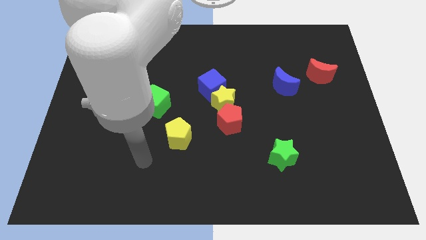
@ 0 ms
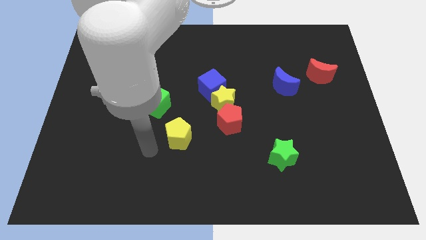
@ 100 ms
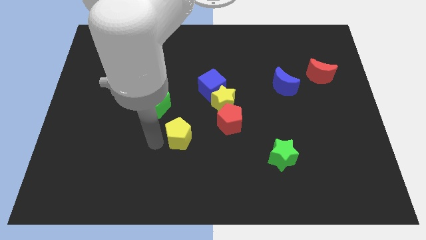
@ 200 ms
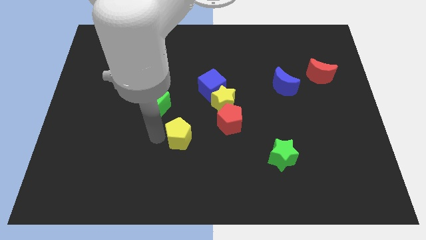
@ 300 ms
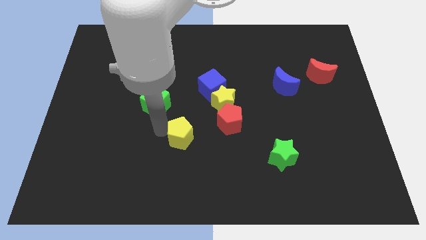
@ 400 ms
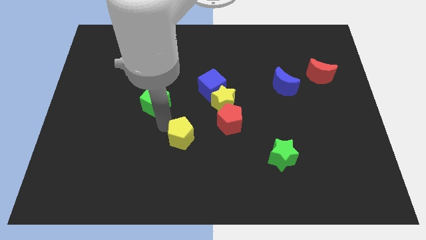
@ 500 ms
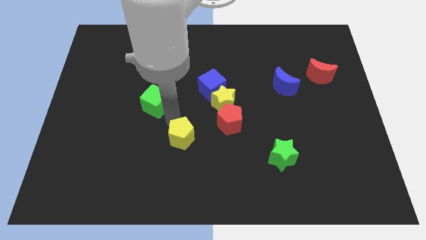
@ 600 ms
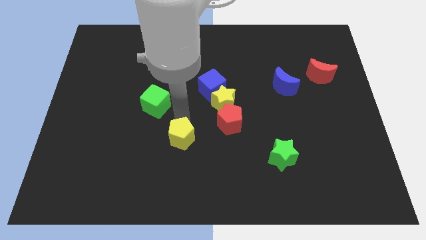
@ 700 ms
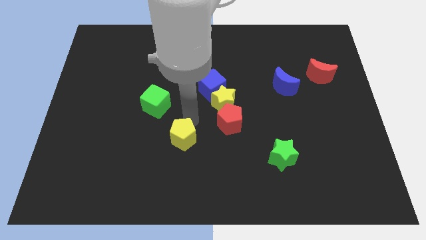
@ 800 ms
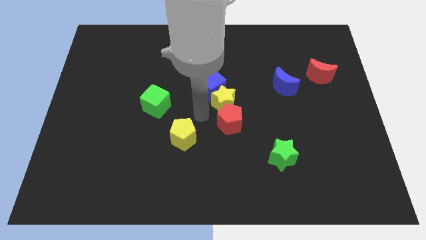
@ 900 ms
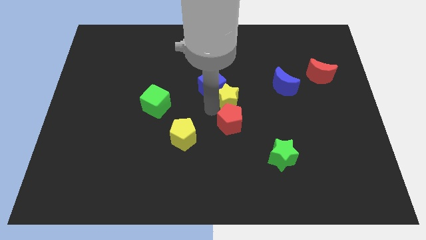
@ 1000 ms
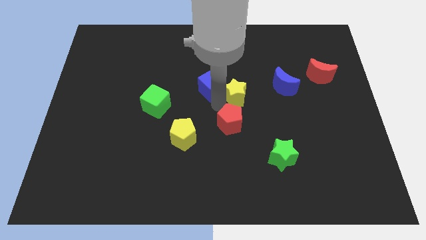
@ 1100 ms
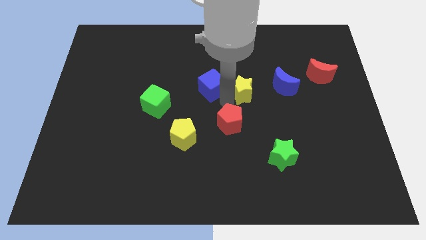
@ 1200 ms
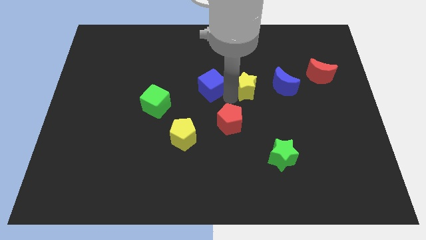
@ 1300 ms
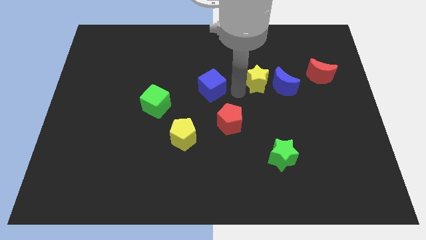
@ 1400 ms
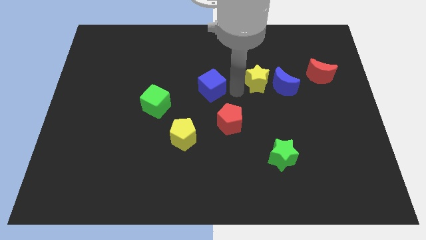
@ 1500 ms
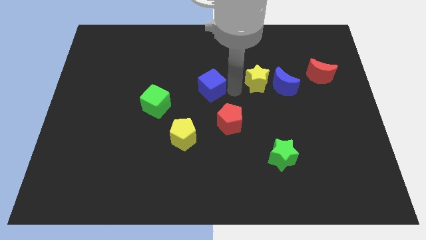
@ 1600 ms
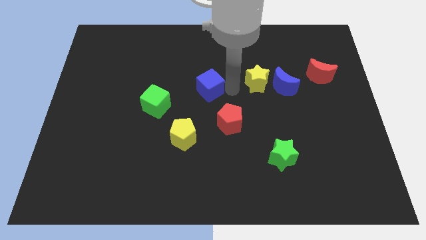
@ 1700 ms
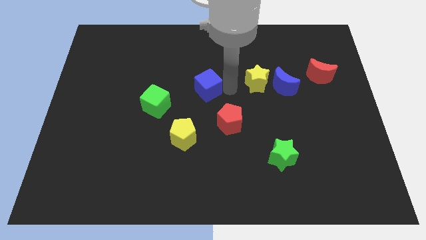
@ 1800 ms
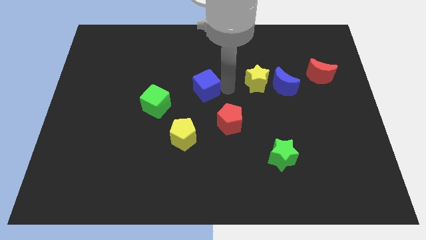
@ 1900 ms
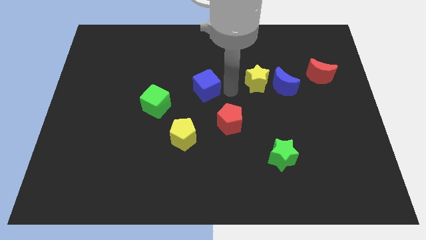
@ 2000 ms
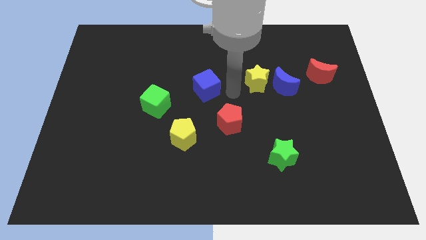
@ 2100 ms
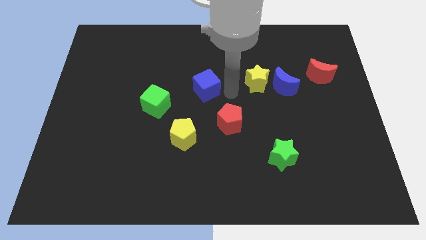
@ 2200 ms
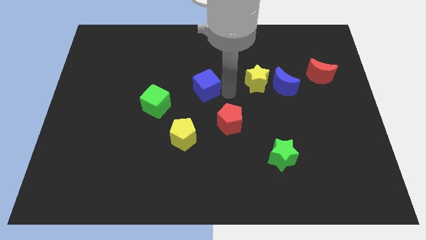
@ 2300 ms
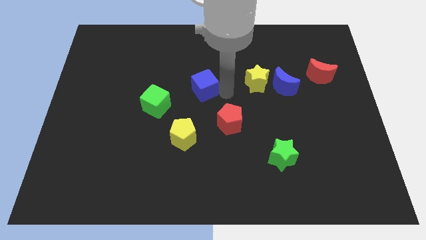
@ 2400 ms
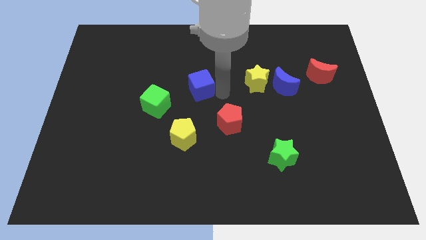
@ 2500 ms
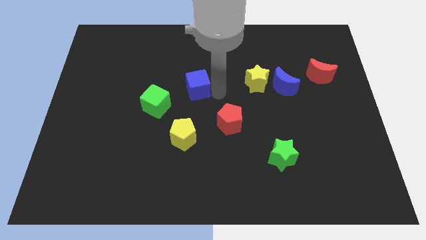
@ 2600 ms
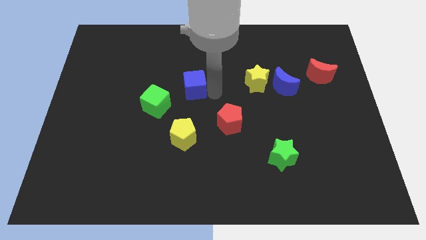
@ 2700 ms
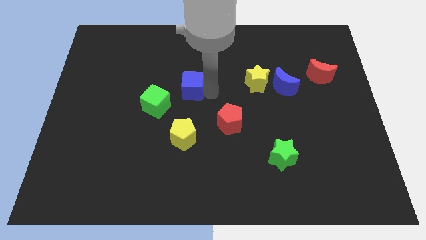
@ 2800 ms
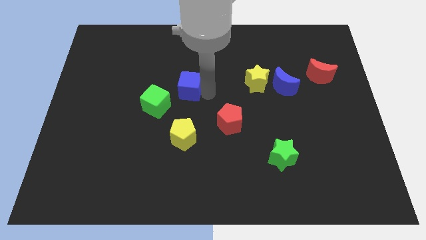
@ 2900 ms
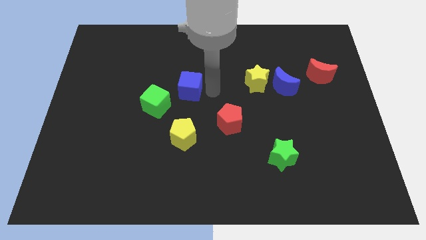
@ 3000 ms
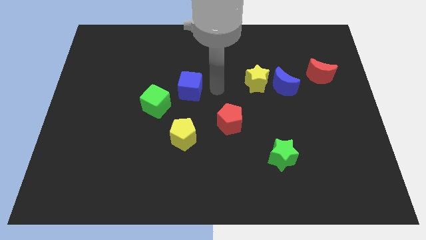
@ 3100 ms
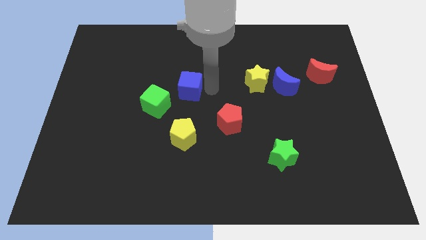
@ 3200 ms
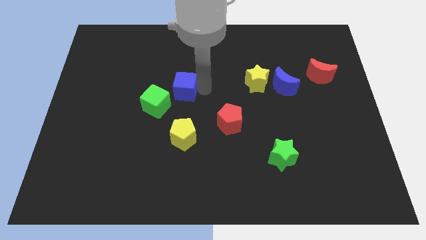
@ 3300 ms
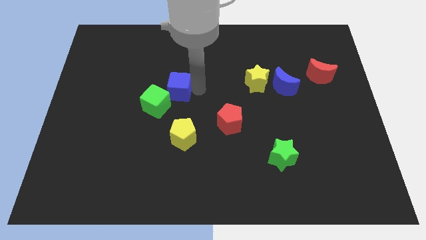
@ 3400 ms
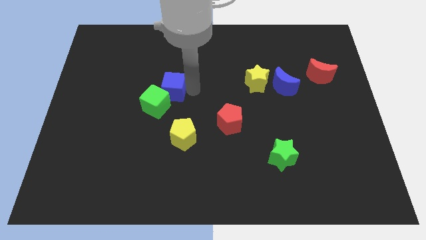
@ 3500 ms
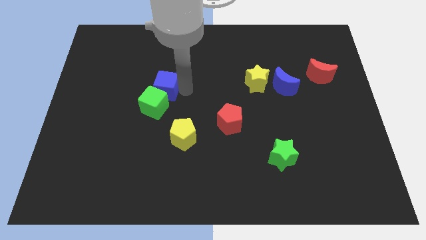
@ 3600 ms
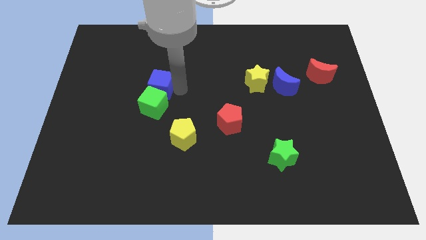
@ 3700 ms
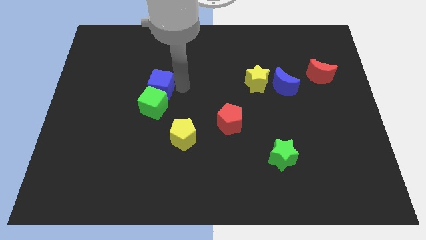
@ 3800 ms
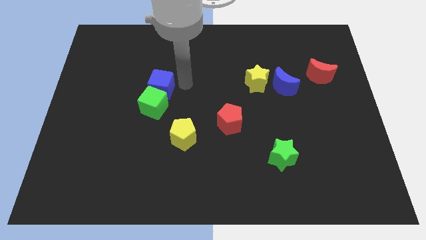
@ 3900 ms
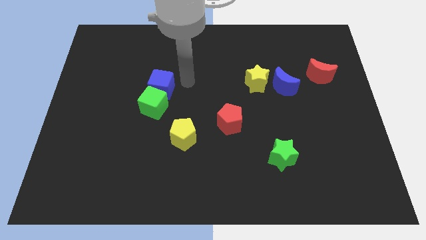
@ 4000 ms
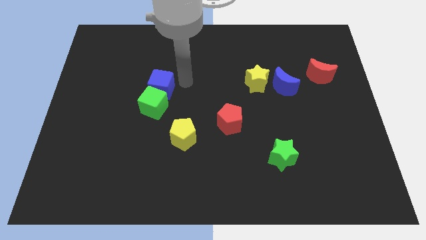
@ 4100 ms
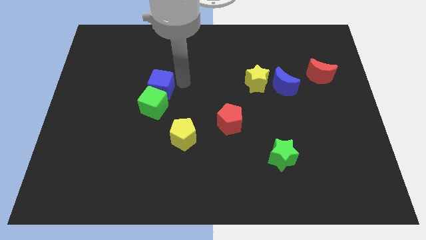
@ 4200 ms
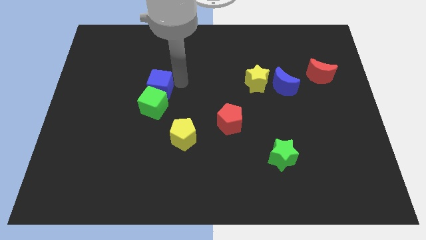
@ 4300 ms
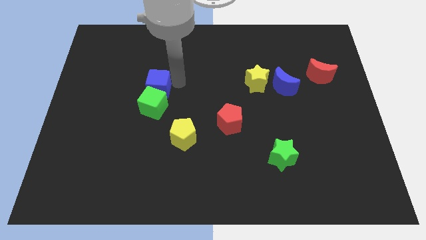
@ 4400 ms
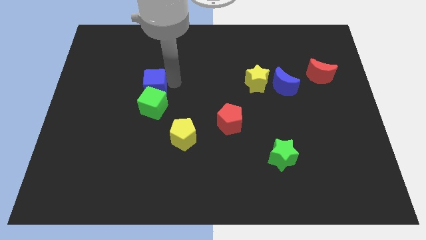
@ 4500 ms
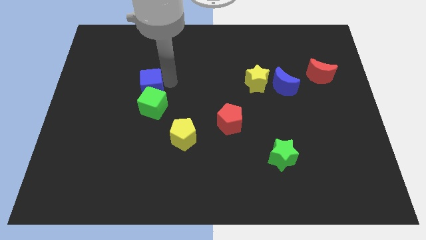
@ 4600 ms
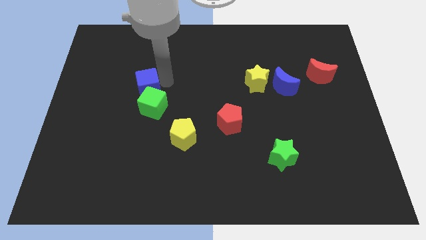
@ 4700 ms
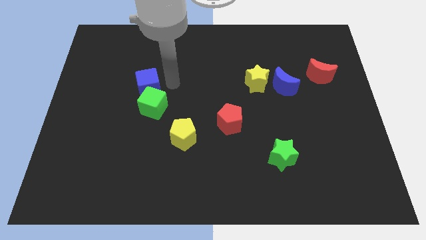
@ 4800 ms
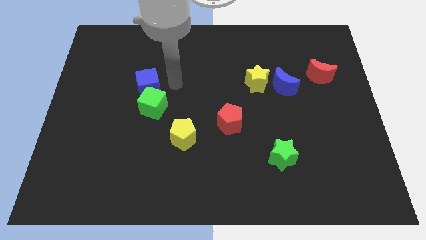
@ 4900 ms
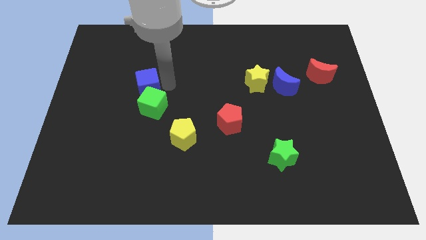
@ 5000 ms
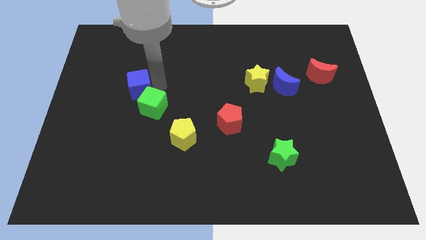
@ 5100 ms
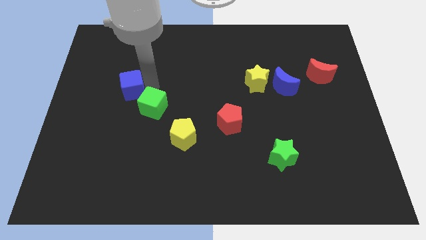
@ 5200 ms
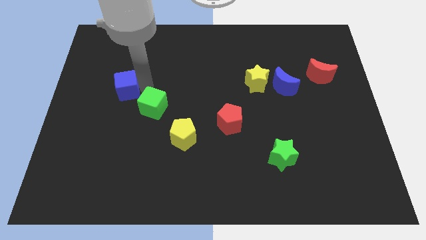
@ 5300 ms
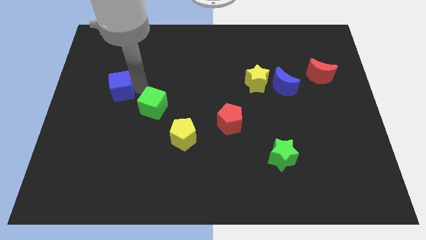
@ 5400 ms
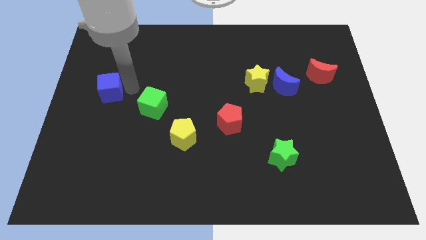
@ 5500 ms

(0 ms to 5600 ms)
put the blue cube to the center left

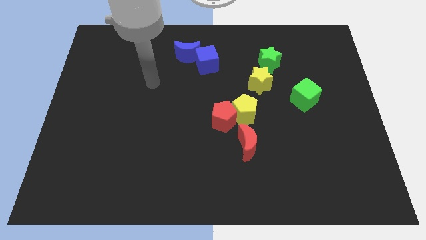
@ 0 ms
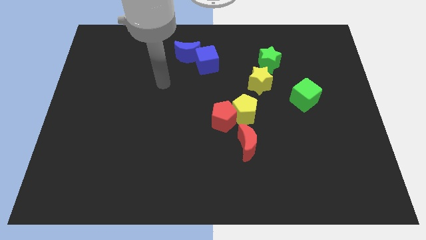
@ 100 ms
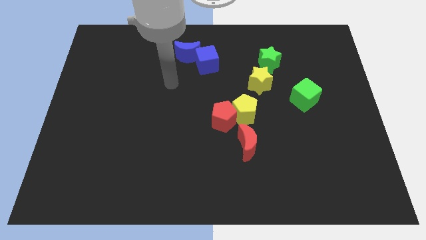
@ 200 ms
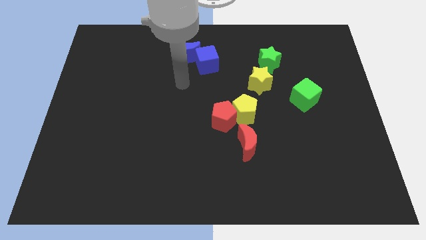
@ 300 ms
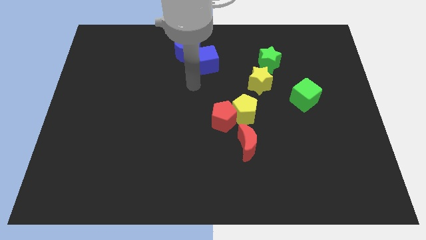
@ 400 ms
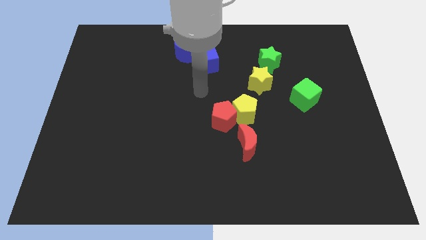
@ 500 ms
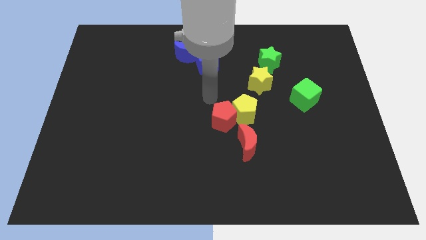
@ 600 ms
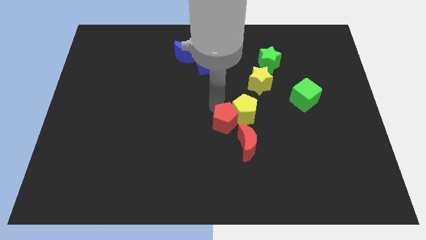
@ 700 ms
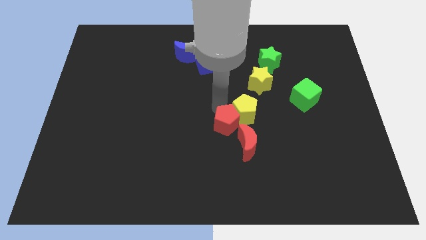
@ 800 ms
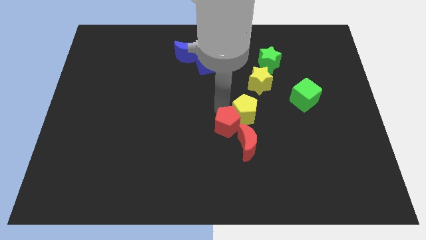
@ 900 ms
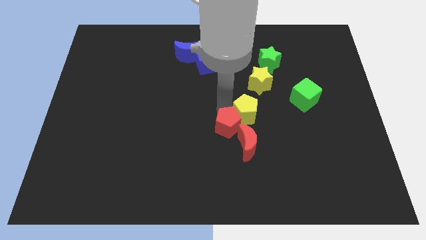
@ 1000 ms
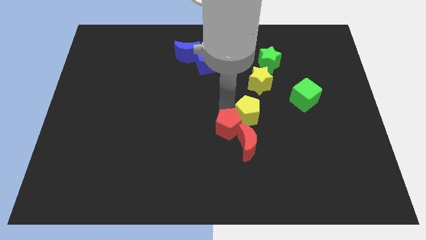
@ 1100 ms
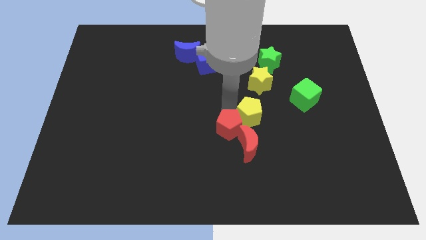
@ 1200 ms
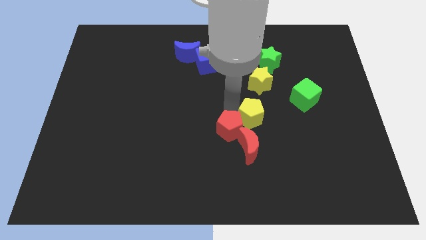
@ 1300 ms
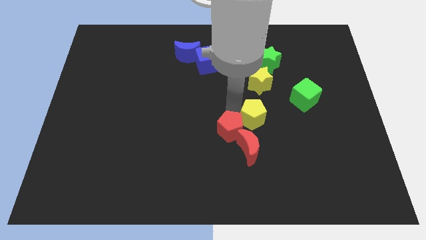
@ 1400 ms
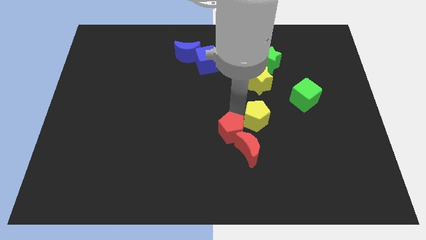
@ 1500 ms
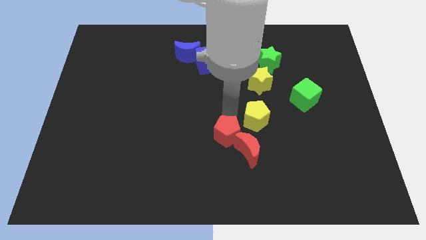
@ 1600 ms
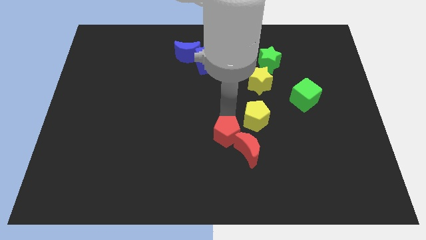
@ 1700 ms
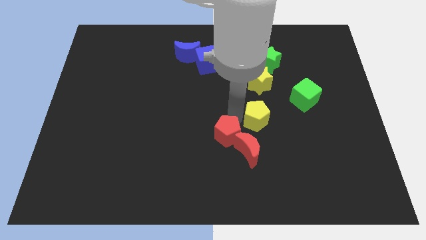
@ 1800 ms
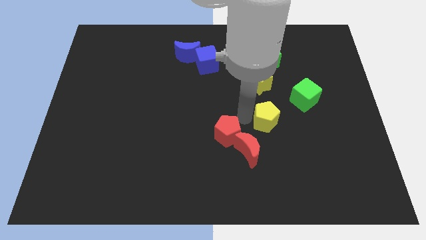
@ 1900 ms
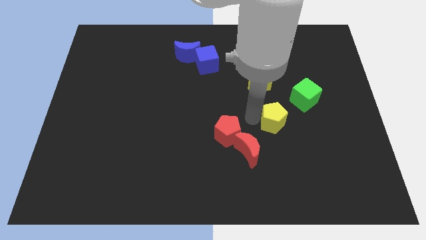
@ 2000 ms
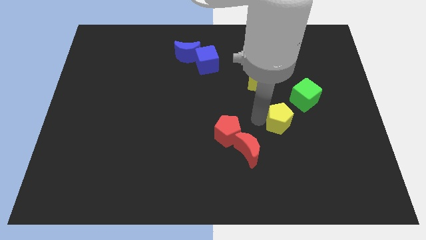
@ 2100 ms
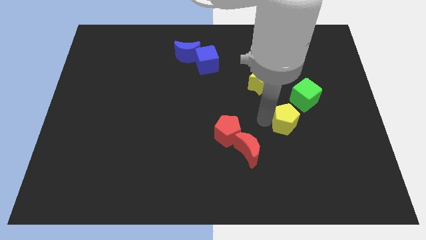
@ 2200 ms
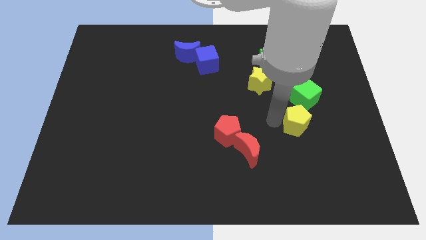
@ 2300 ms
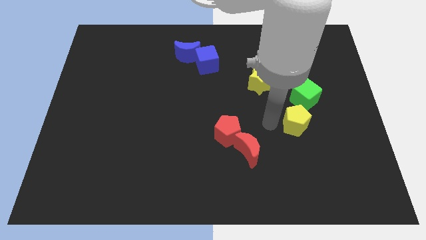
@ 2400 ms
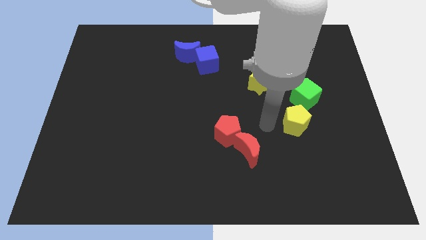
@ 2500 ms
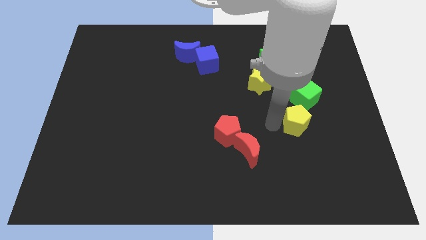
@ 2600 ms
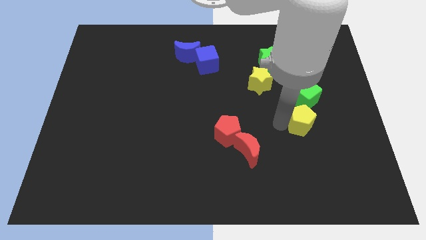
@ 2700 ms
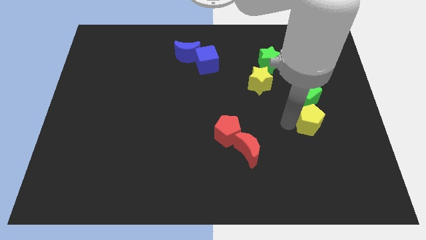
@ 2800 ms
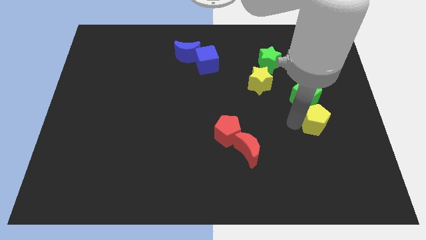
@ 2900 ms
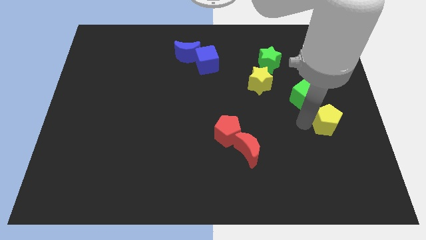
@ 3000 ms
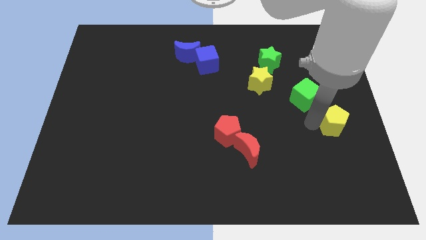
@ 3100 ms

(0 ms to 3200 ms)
put the yellow pentagon to the center right
